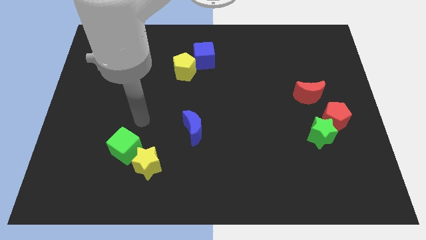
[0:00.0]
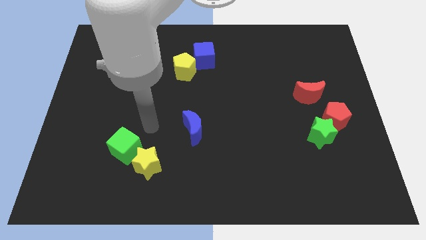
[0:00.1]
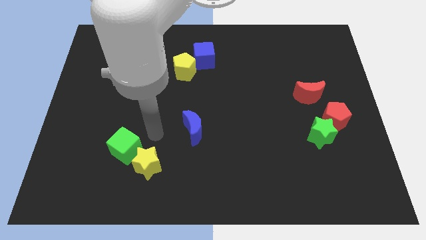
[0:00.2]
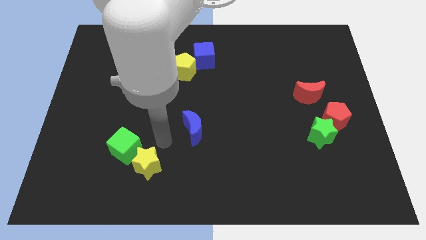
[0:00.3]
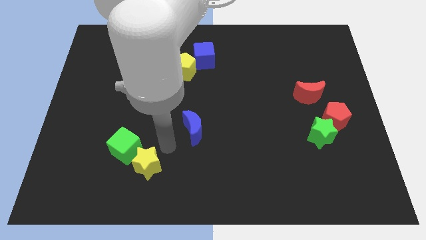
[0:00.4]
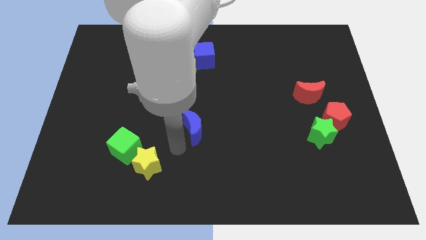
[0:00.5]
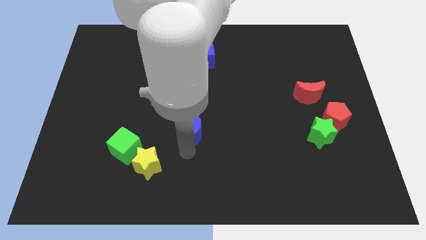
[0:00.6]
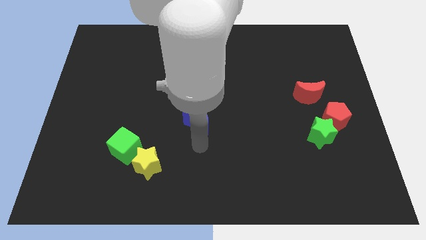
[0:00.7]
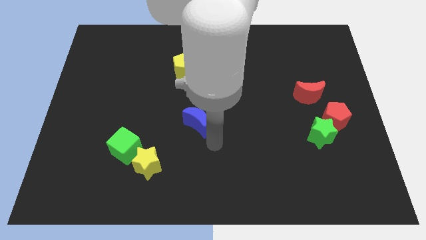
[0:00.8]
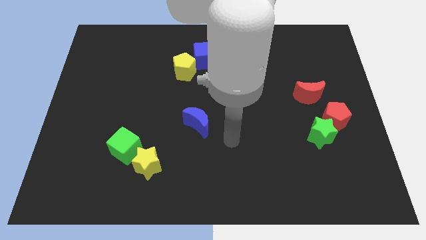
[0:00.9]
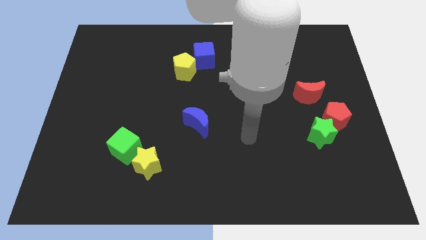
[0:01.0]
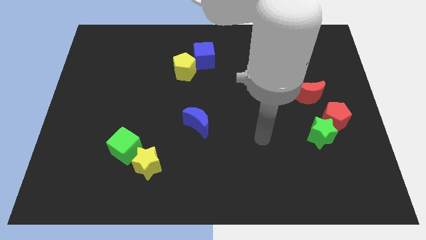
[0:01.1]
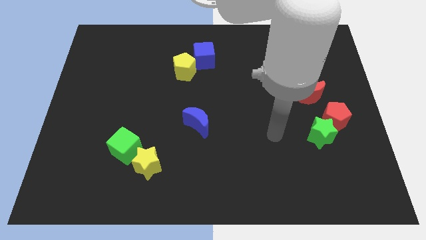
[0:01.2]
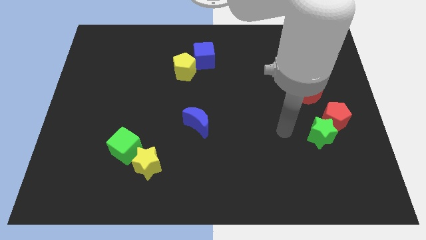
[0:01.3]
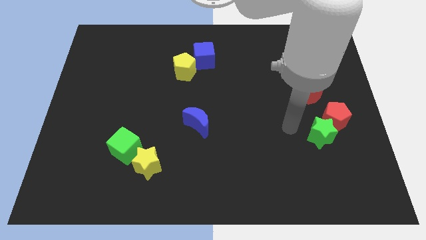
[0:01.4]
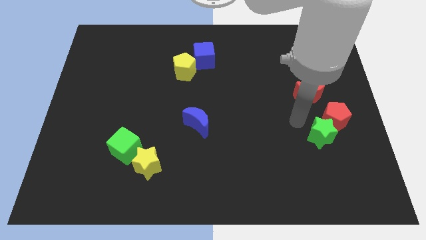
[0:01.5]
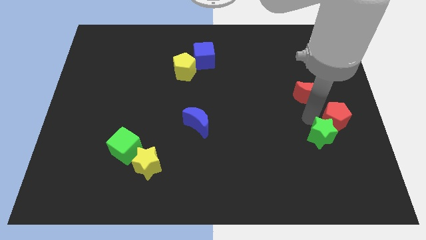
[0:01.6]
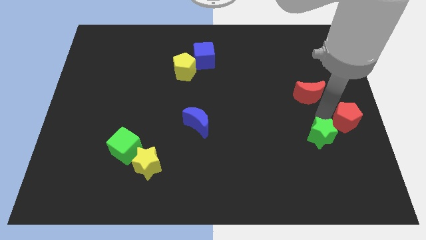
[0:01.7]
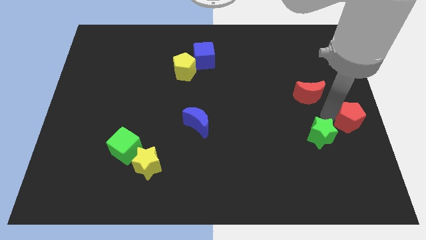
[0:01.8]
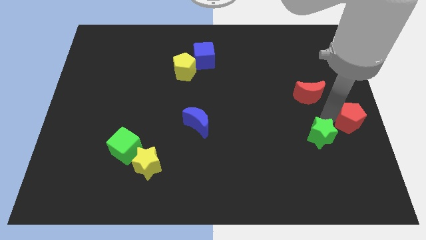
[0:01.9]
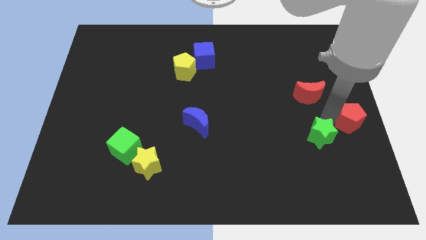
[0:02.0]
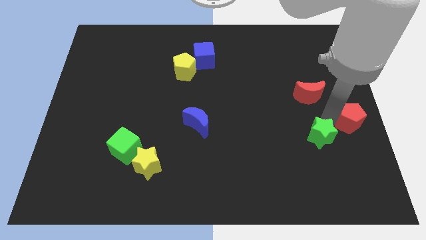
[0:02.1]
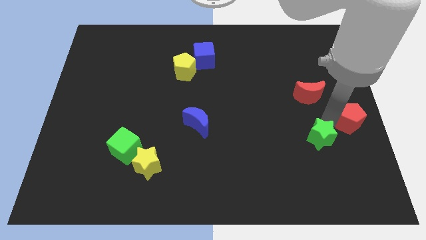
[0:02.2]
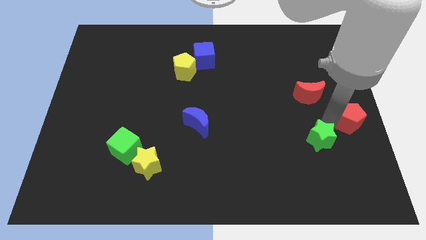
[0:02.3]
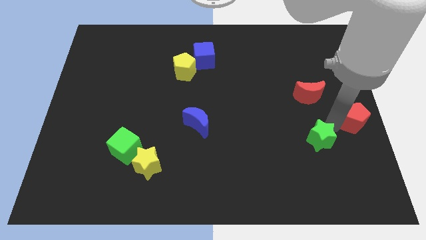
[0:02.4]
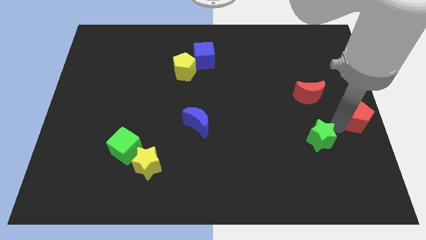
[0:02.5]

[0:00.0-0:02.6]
separate the green star from the red pentagon

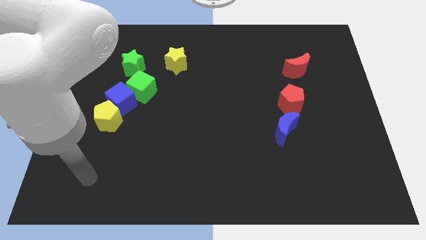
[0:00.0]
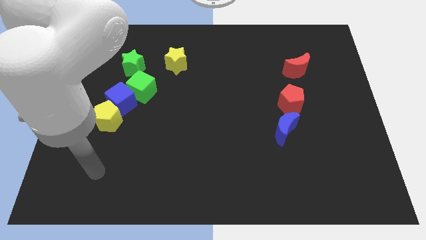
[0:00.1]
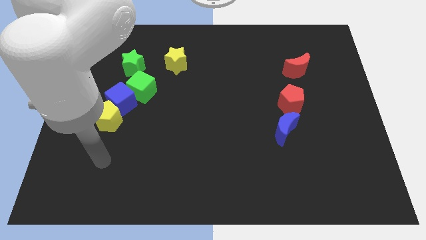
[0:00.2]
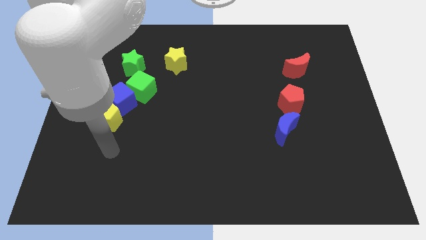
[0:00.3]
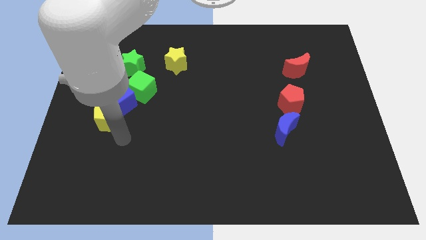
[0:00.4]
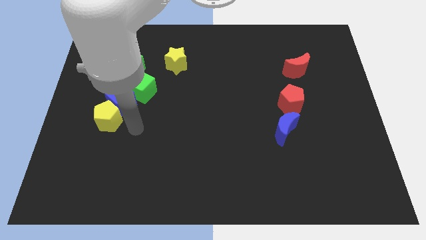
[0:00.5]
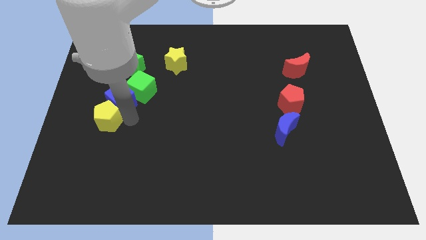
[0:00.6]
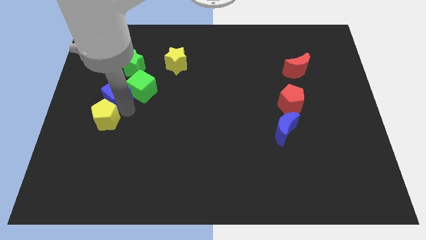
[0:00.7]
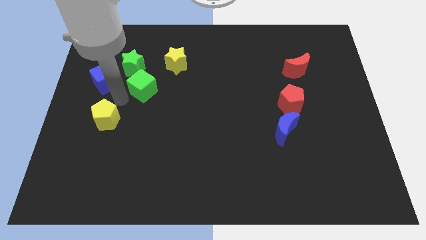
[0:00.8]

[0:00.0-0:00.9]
pull the yellow pentagon apart from the blue cube

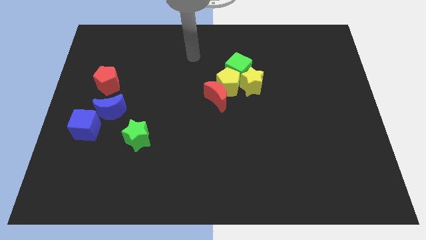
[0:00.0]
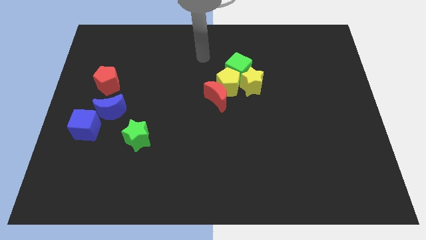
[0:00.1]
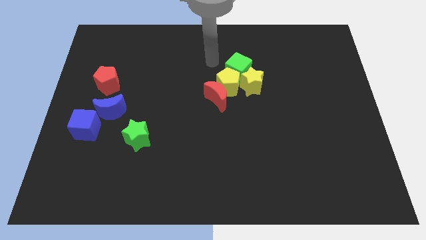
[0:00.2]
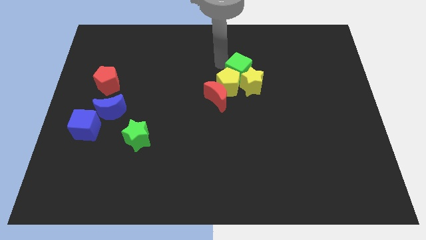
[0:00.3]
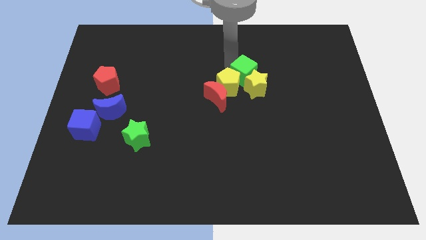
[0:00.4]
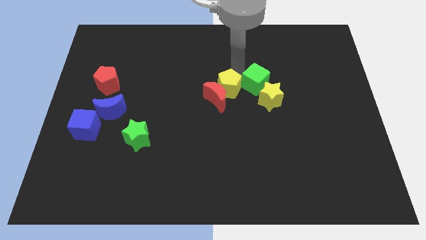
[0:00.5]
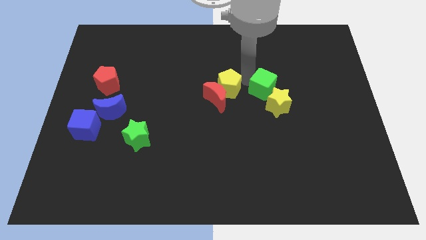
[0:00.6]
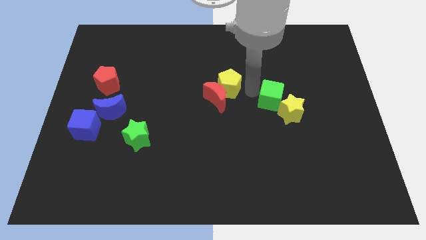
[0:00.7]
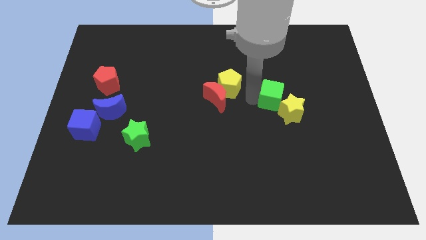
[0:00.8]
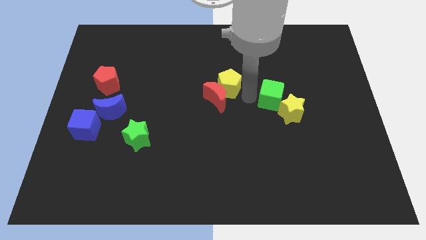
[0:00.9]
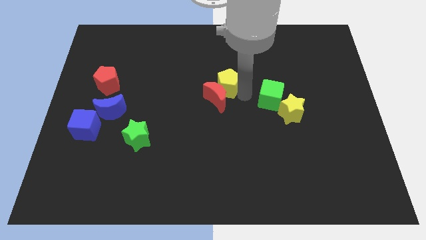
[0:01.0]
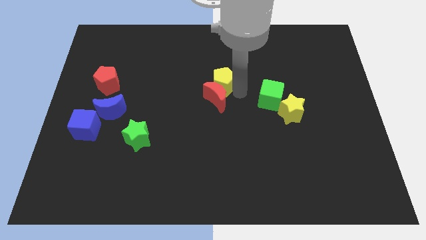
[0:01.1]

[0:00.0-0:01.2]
separate the yellow pentagon from the clump

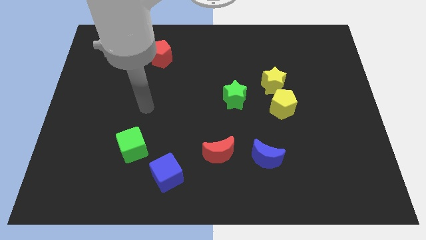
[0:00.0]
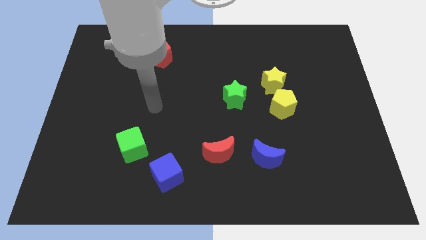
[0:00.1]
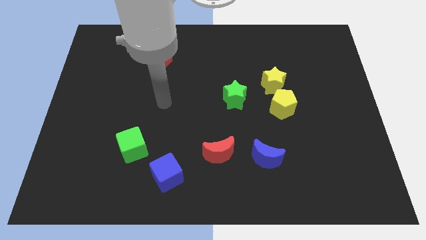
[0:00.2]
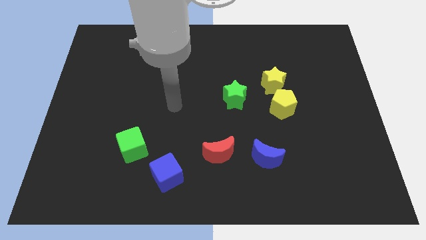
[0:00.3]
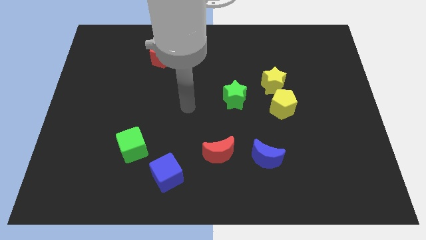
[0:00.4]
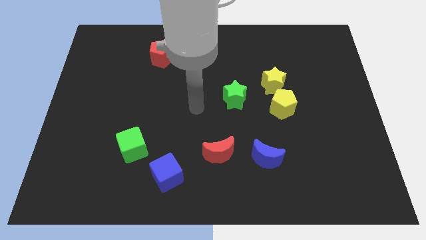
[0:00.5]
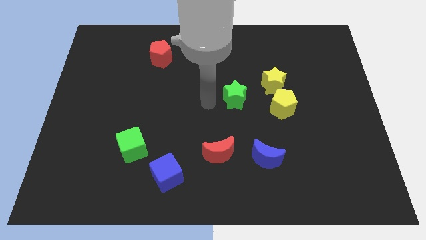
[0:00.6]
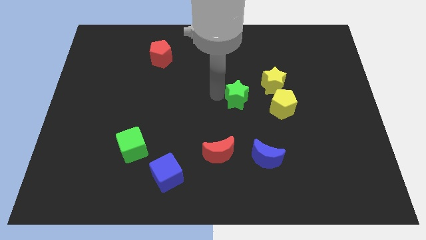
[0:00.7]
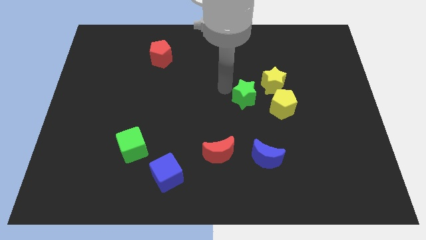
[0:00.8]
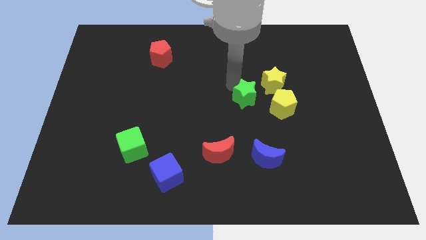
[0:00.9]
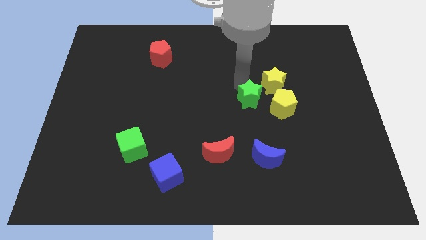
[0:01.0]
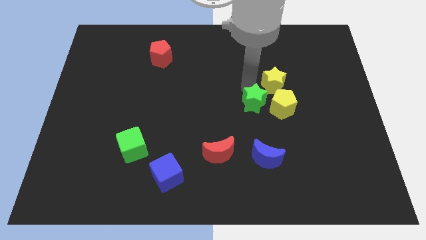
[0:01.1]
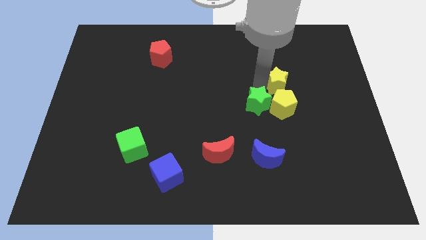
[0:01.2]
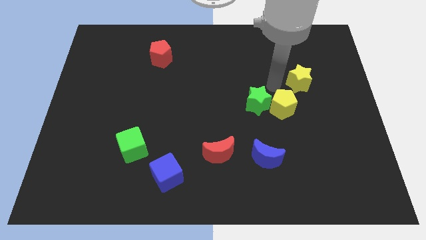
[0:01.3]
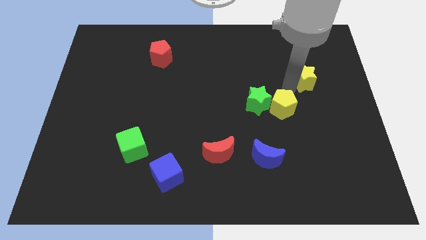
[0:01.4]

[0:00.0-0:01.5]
separate the yellow pentagon from the yellow star

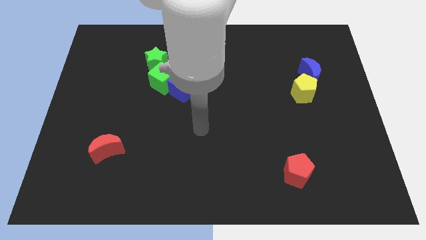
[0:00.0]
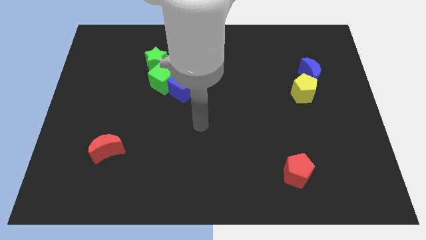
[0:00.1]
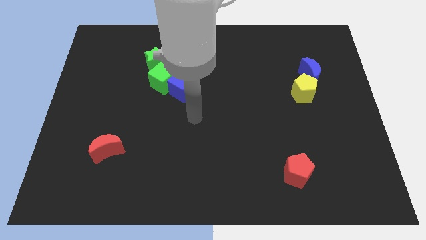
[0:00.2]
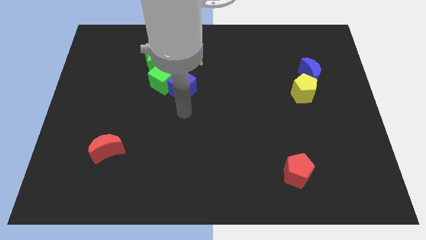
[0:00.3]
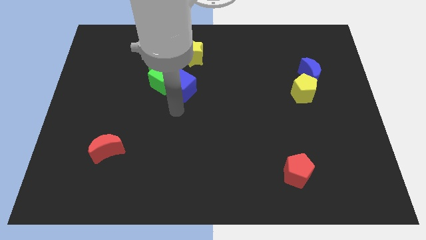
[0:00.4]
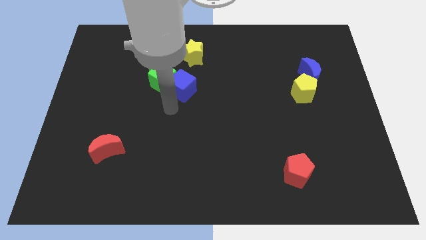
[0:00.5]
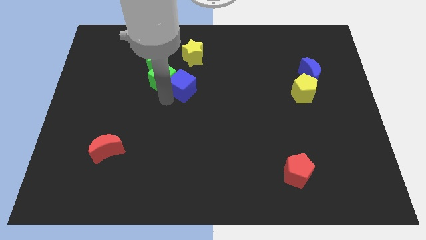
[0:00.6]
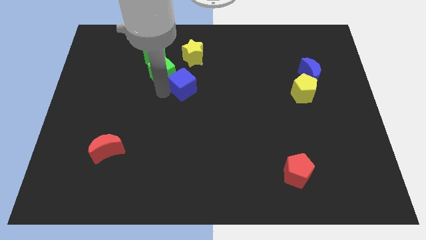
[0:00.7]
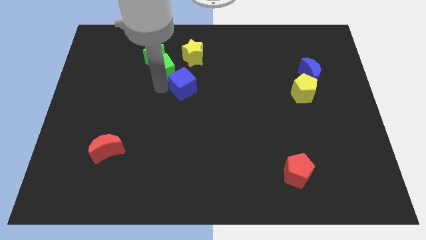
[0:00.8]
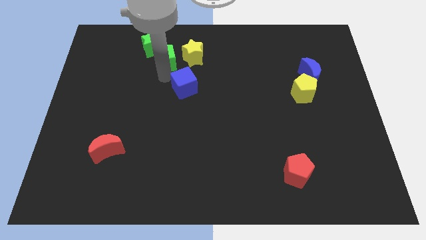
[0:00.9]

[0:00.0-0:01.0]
pull the blue cube apart from the green cube

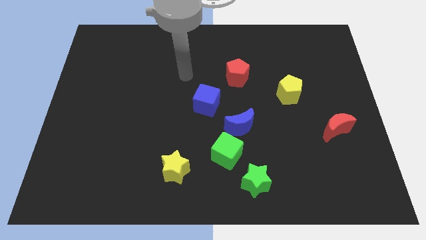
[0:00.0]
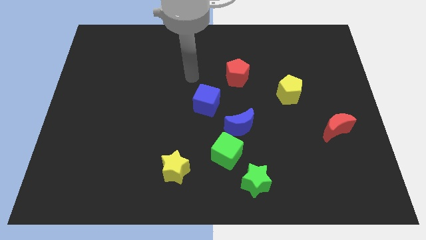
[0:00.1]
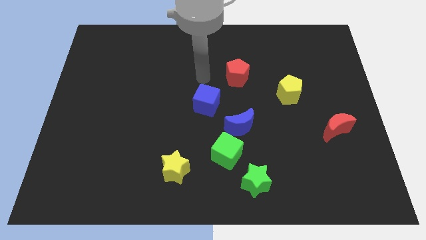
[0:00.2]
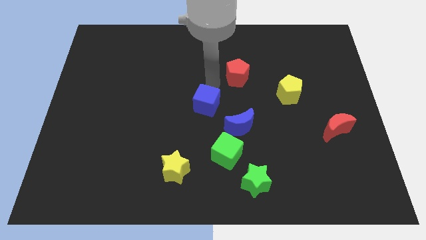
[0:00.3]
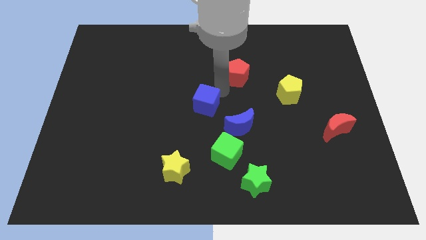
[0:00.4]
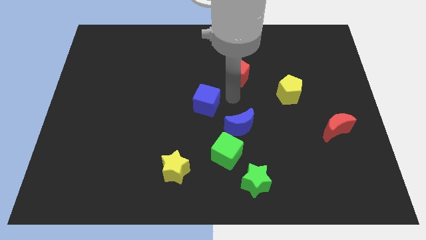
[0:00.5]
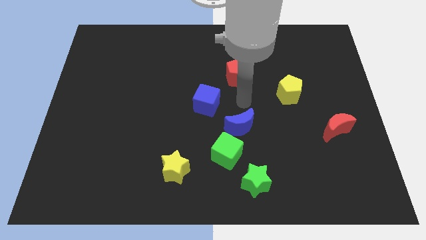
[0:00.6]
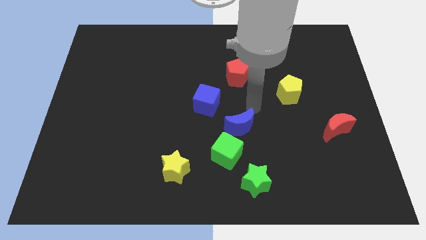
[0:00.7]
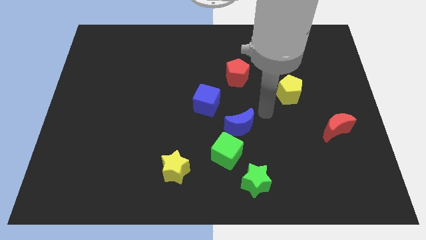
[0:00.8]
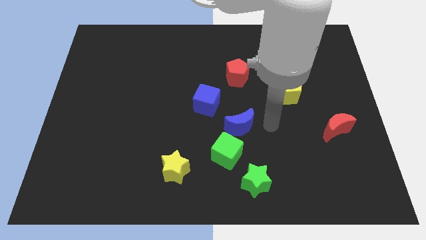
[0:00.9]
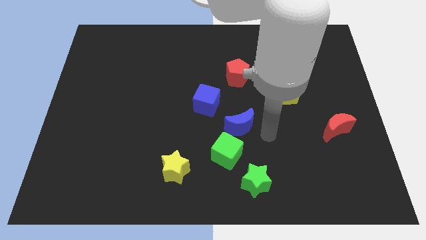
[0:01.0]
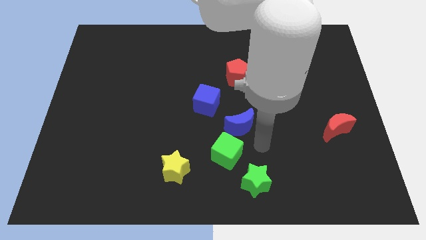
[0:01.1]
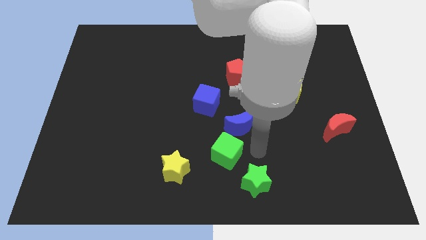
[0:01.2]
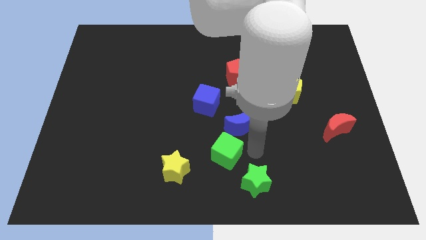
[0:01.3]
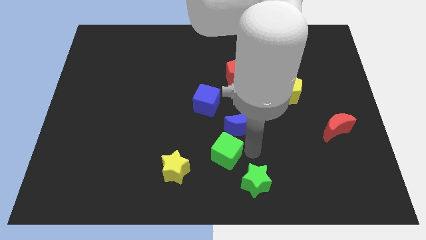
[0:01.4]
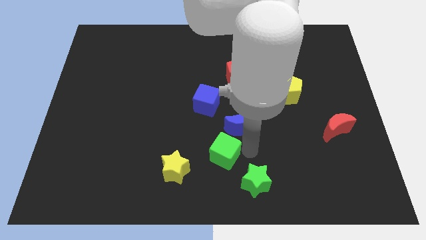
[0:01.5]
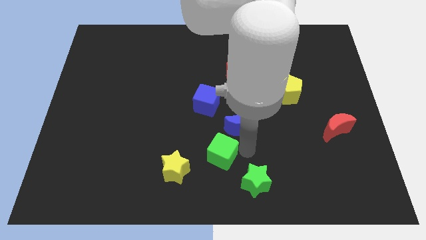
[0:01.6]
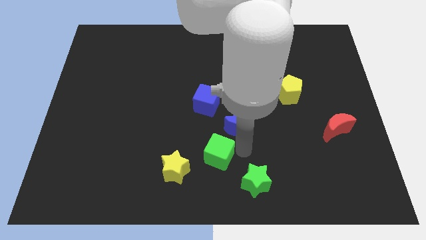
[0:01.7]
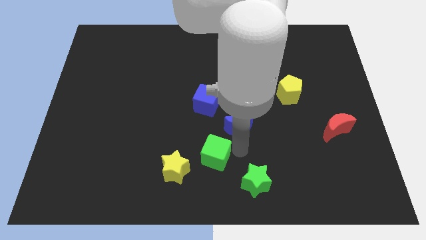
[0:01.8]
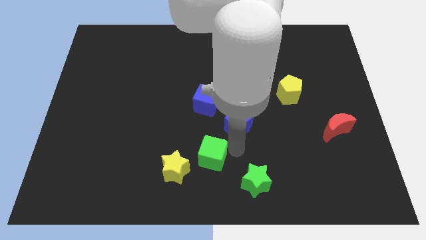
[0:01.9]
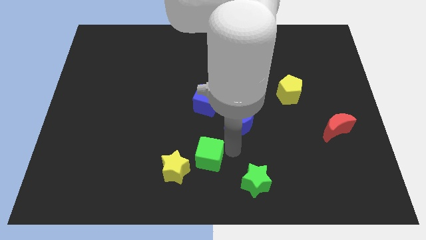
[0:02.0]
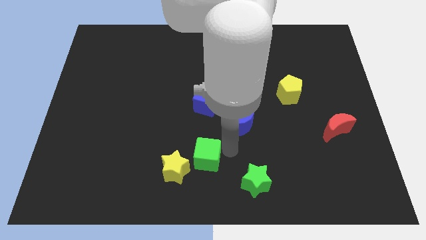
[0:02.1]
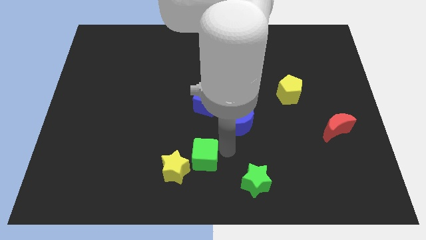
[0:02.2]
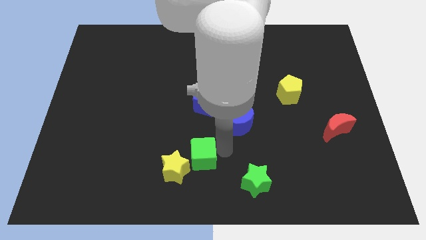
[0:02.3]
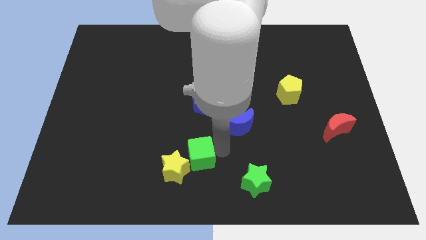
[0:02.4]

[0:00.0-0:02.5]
move the green cube away from the blue moon and green star
